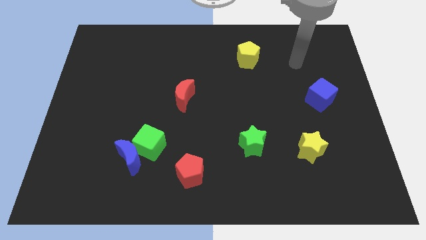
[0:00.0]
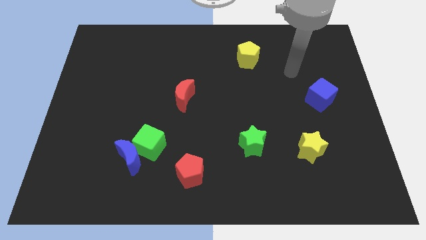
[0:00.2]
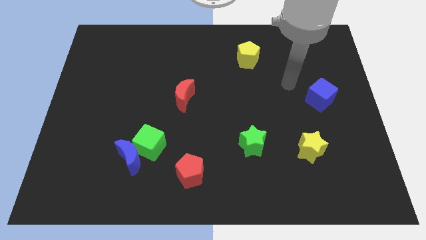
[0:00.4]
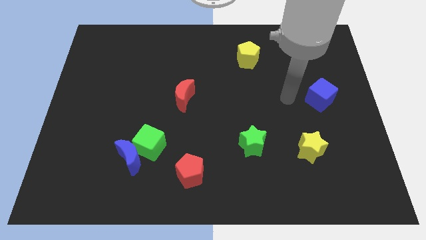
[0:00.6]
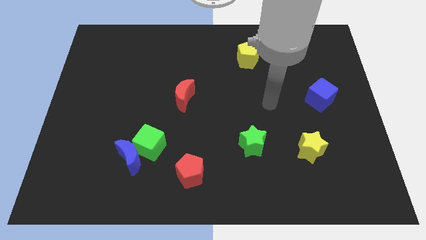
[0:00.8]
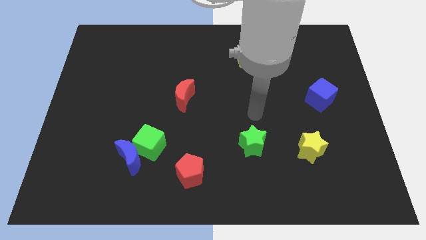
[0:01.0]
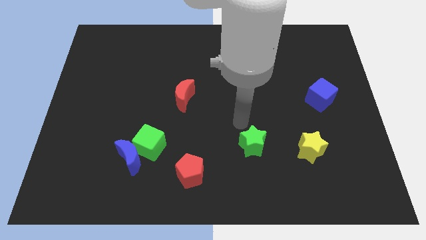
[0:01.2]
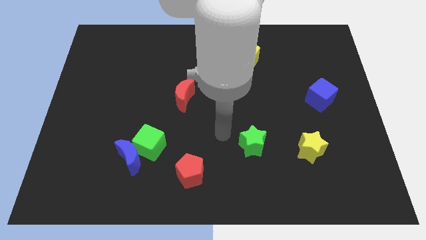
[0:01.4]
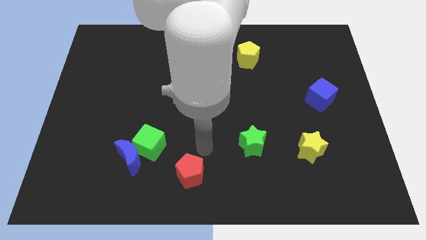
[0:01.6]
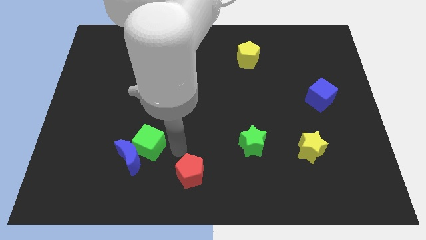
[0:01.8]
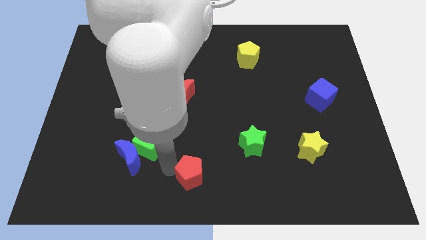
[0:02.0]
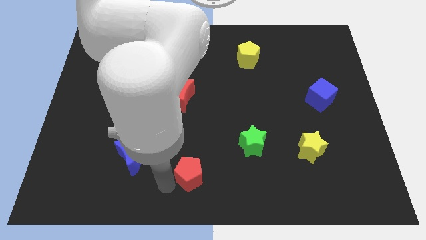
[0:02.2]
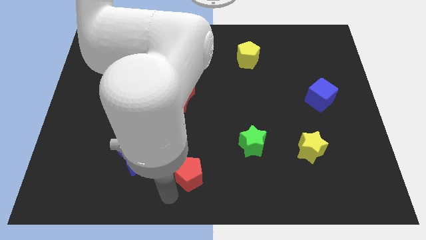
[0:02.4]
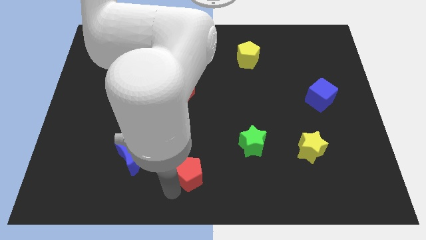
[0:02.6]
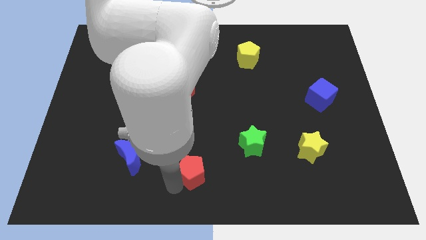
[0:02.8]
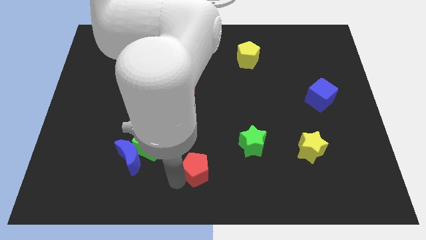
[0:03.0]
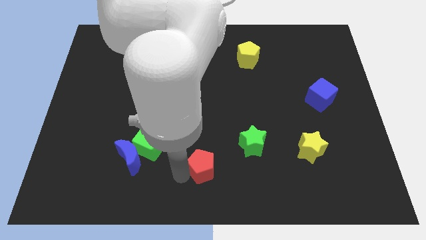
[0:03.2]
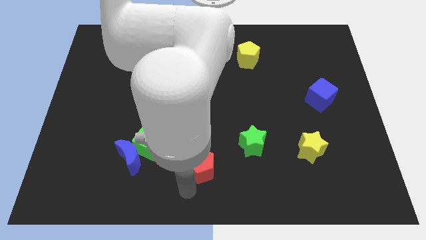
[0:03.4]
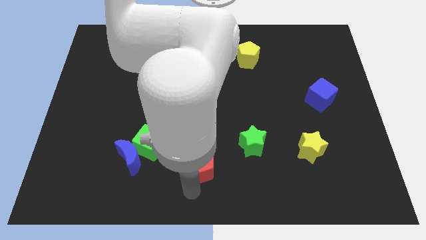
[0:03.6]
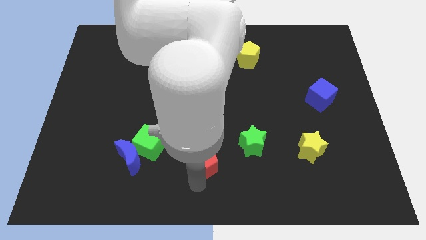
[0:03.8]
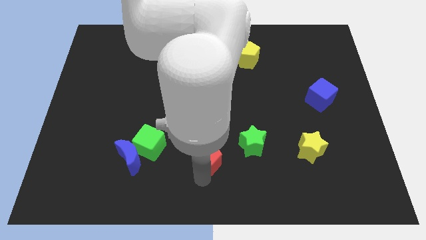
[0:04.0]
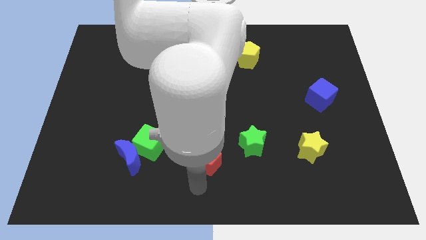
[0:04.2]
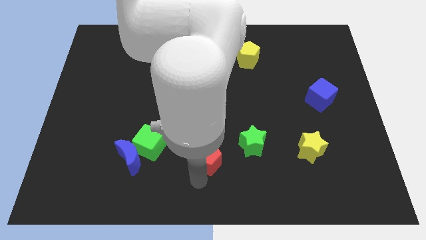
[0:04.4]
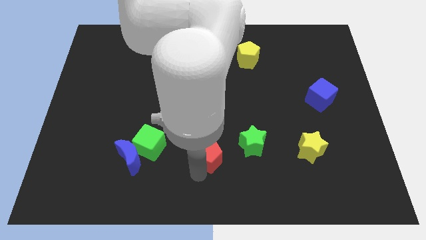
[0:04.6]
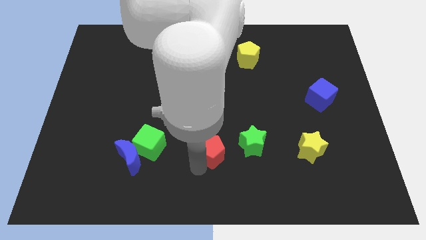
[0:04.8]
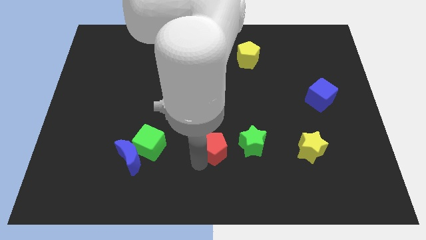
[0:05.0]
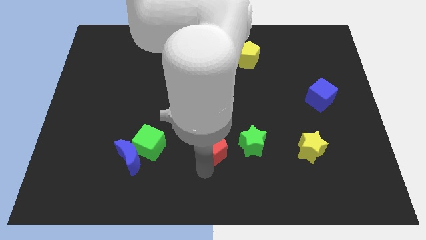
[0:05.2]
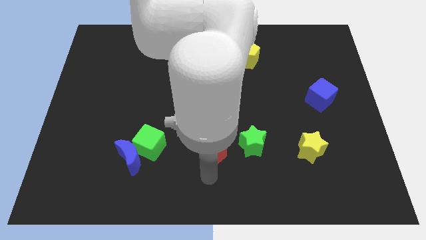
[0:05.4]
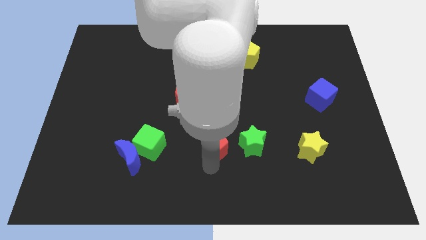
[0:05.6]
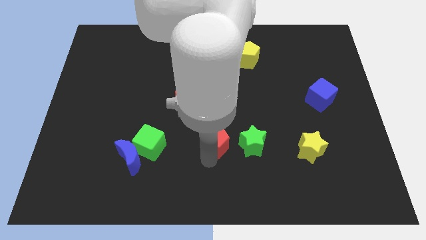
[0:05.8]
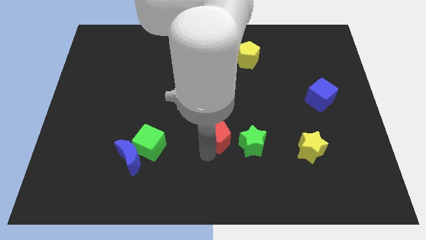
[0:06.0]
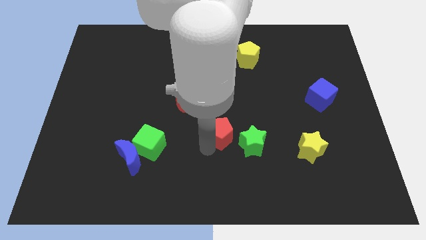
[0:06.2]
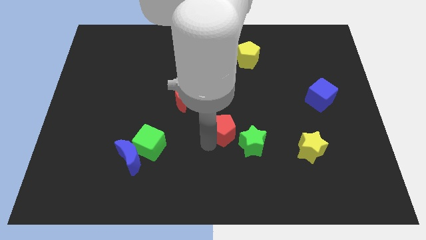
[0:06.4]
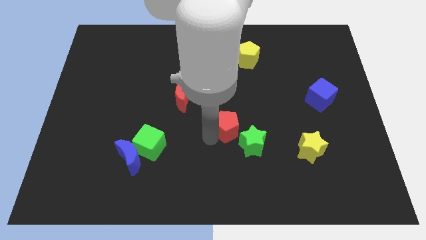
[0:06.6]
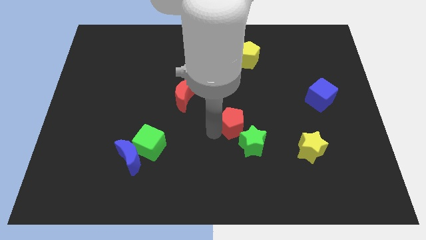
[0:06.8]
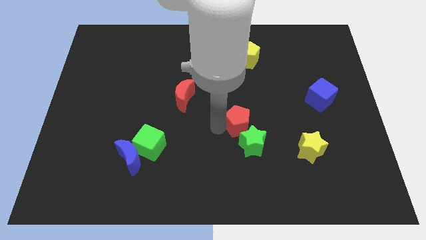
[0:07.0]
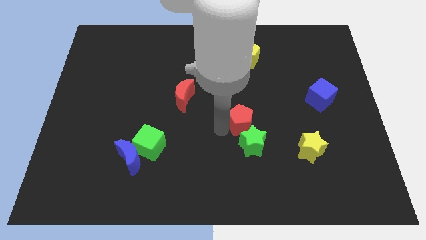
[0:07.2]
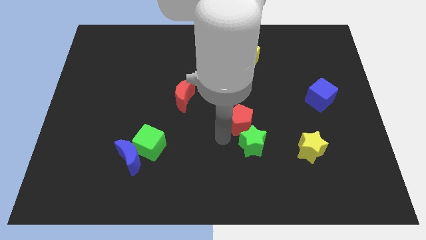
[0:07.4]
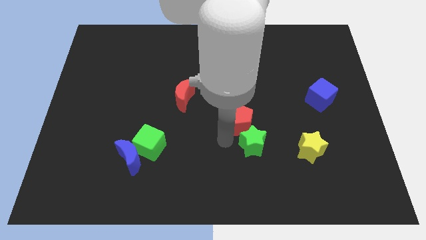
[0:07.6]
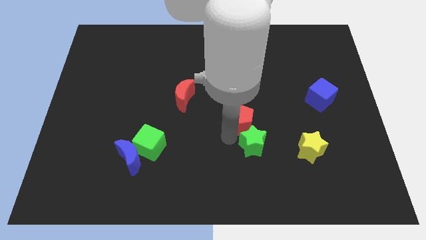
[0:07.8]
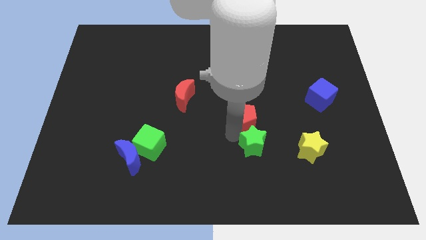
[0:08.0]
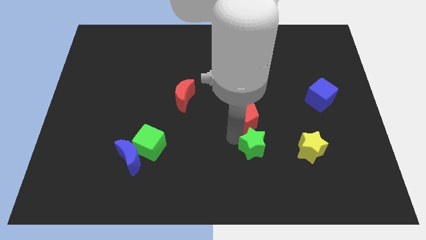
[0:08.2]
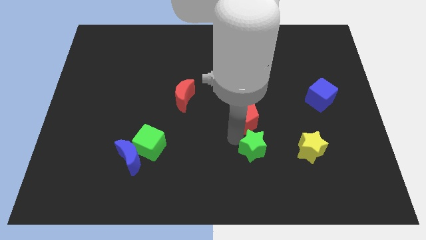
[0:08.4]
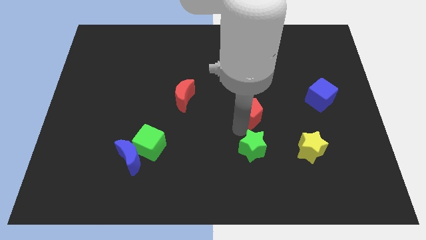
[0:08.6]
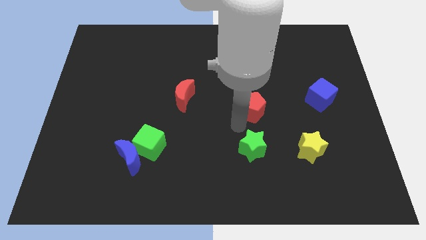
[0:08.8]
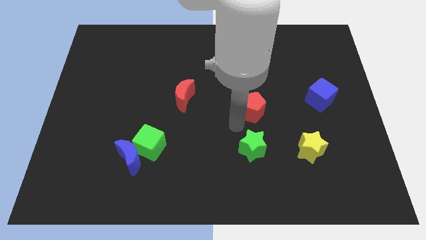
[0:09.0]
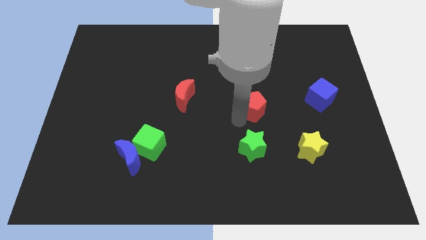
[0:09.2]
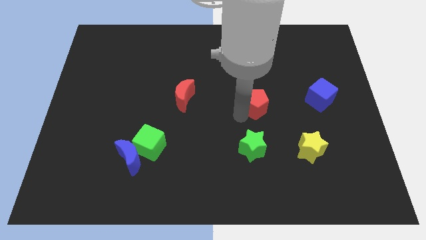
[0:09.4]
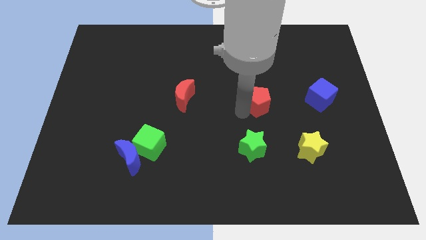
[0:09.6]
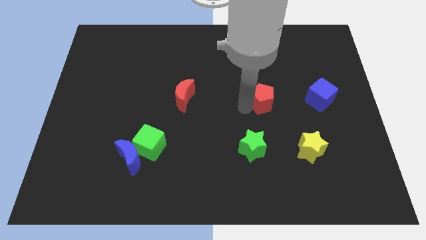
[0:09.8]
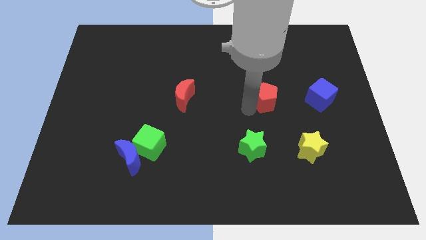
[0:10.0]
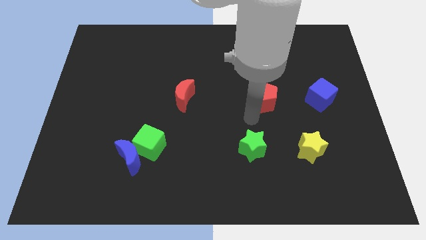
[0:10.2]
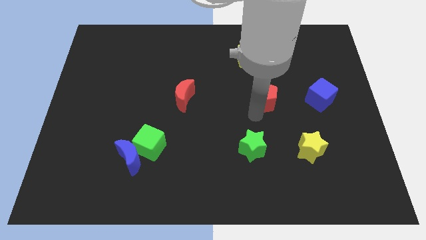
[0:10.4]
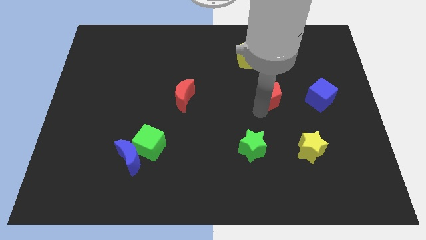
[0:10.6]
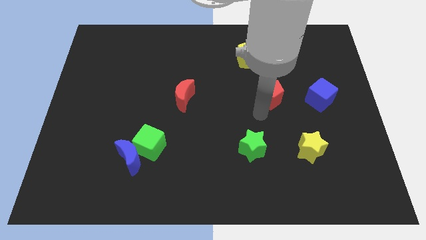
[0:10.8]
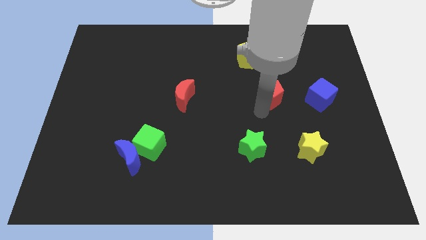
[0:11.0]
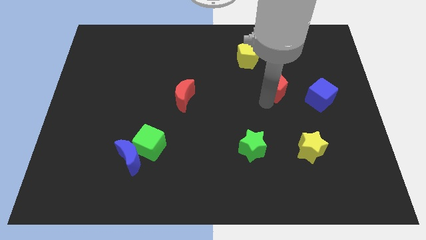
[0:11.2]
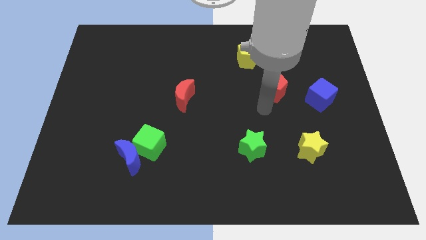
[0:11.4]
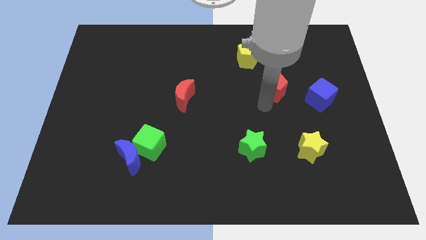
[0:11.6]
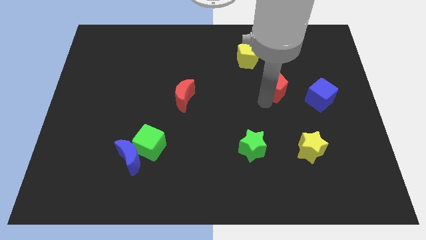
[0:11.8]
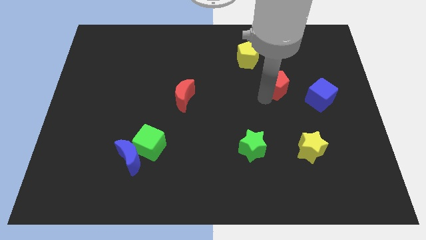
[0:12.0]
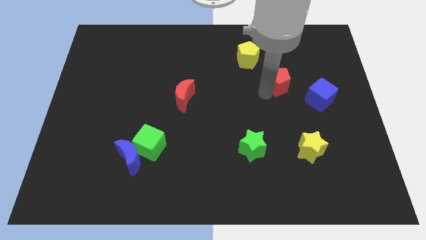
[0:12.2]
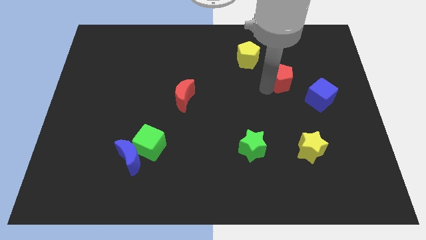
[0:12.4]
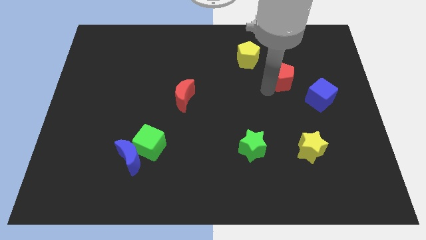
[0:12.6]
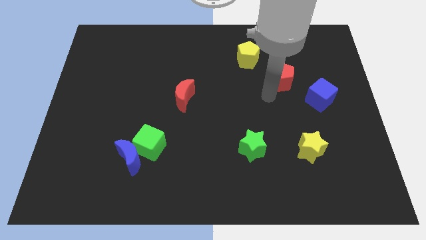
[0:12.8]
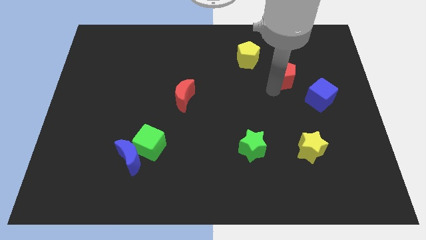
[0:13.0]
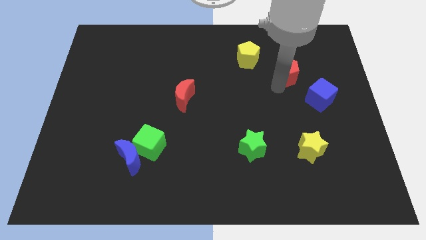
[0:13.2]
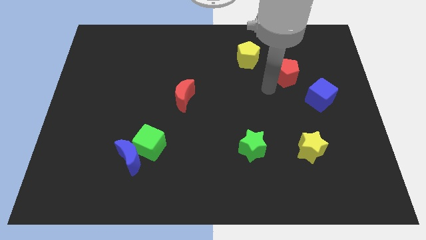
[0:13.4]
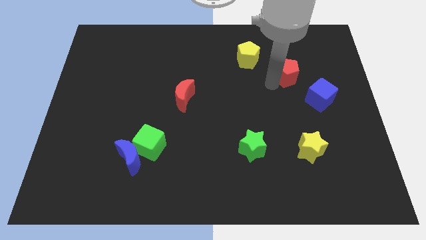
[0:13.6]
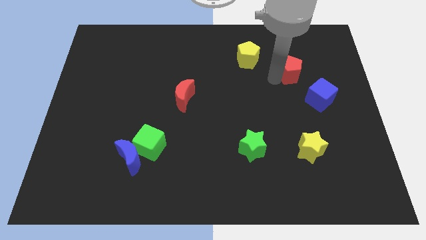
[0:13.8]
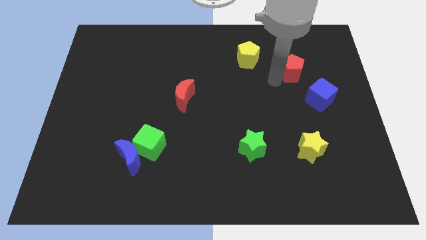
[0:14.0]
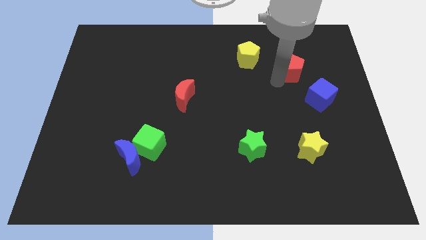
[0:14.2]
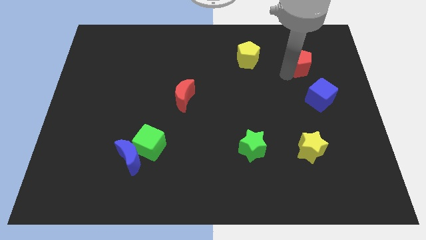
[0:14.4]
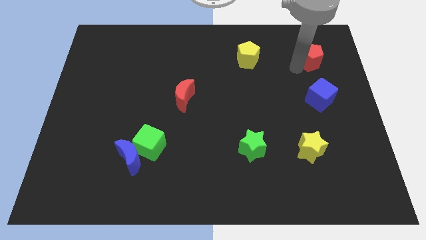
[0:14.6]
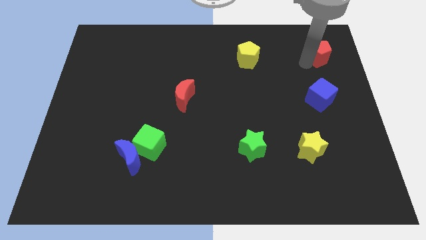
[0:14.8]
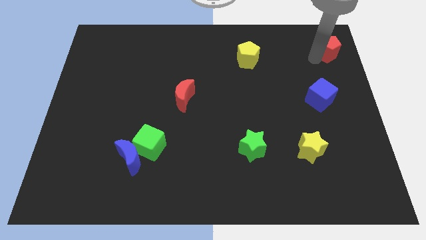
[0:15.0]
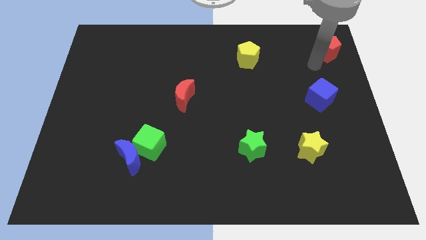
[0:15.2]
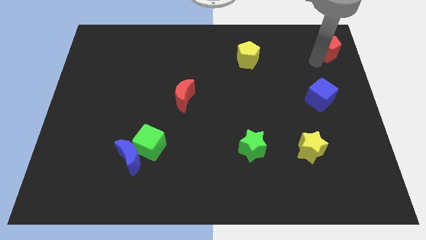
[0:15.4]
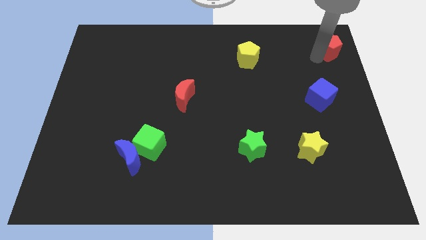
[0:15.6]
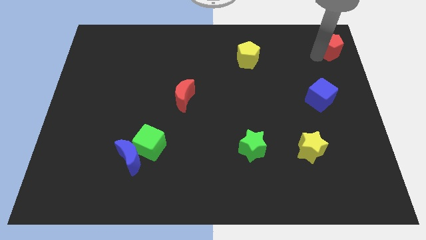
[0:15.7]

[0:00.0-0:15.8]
put the red pentagon to the top right of the board
